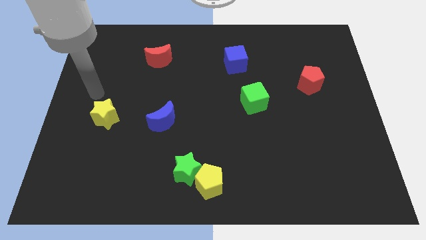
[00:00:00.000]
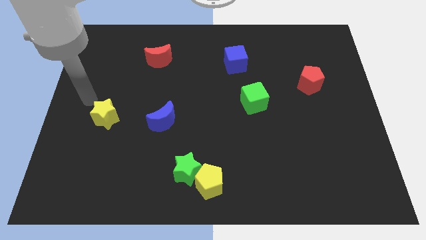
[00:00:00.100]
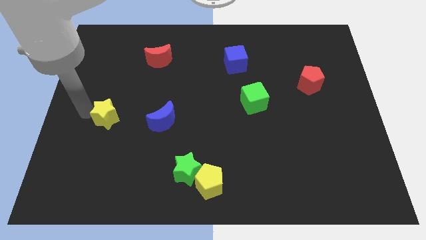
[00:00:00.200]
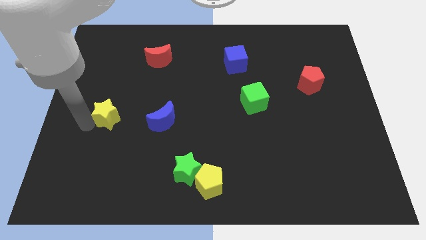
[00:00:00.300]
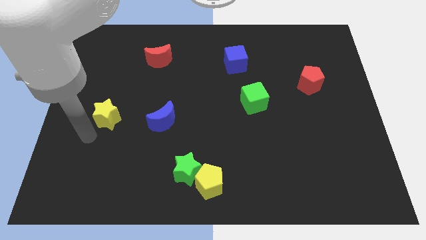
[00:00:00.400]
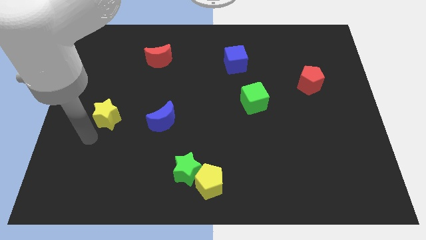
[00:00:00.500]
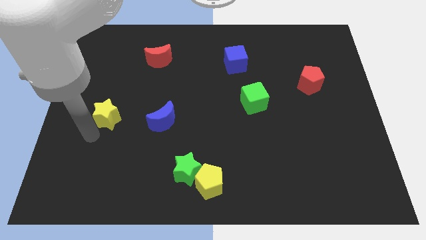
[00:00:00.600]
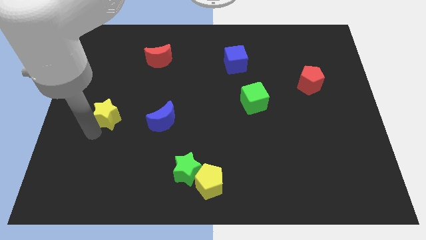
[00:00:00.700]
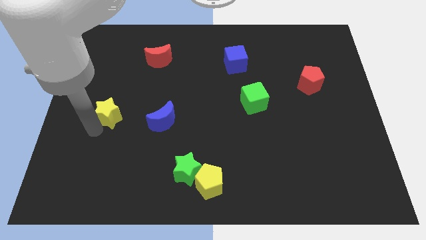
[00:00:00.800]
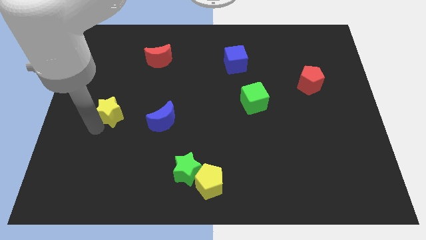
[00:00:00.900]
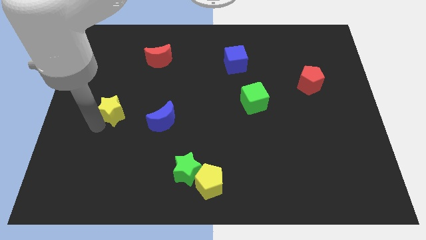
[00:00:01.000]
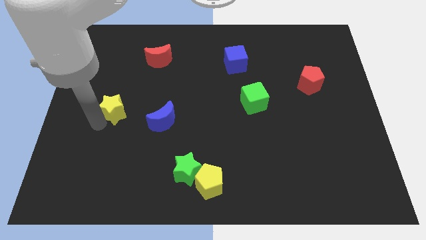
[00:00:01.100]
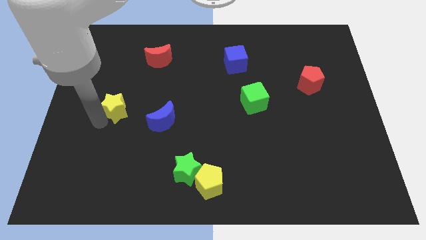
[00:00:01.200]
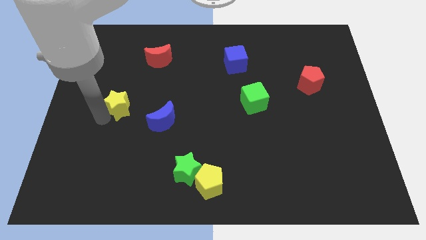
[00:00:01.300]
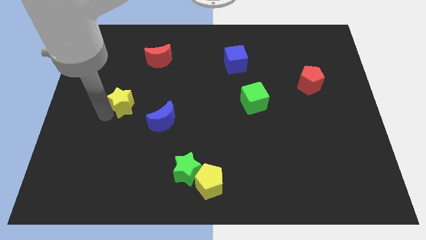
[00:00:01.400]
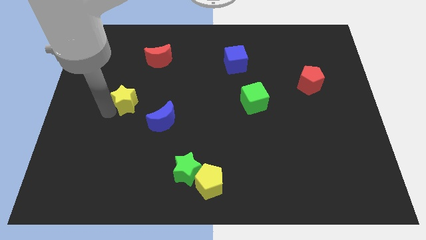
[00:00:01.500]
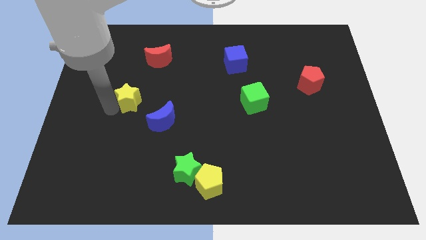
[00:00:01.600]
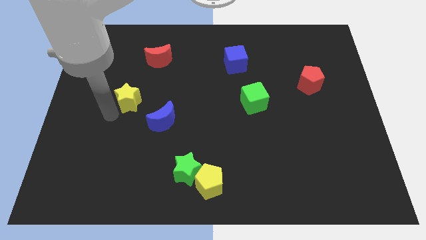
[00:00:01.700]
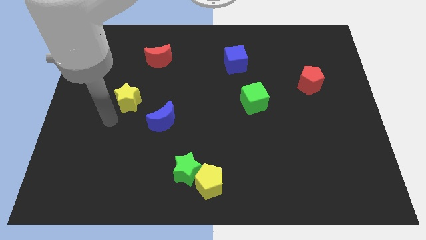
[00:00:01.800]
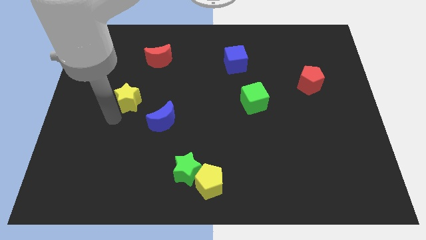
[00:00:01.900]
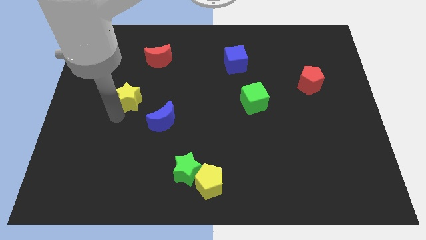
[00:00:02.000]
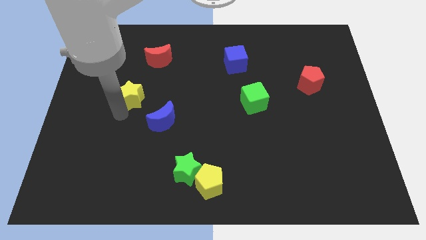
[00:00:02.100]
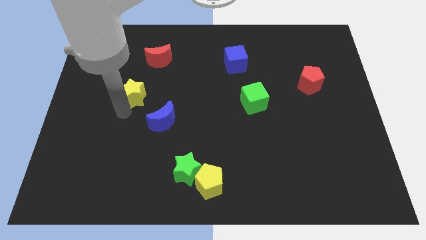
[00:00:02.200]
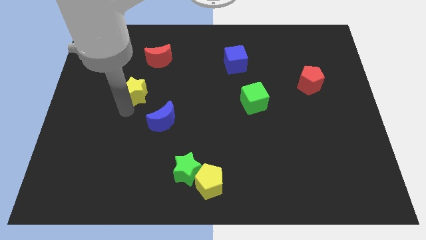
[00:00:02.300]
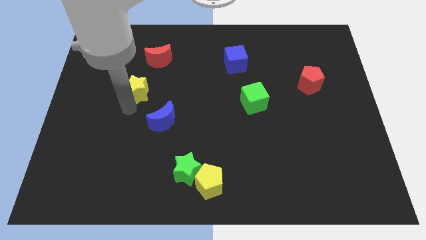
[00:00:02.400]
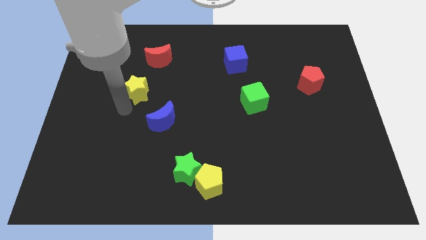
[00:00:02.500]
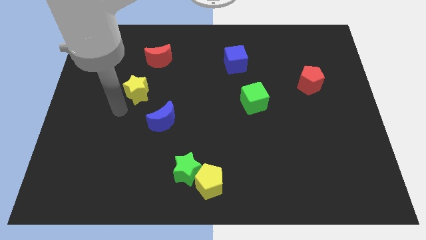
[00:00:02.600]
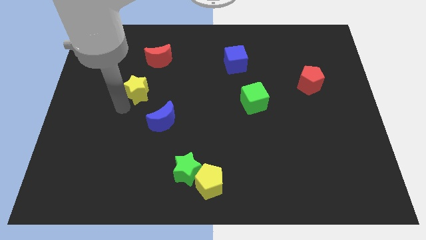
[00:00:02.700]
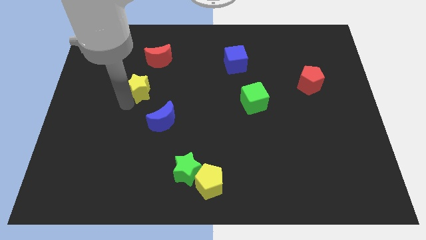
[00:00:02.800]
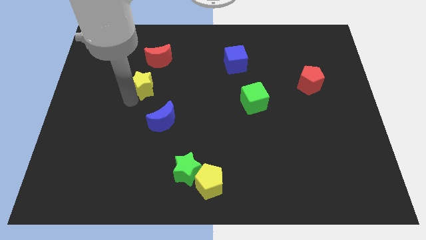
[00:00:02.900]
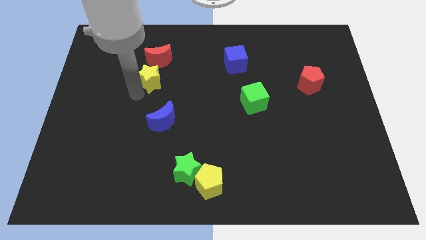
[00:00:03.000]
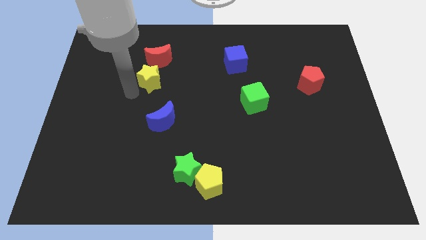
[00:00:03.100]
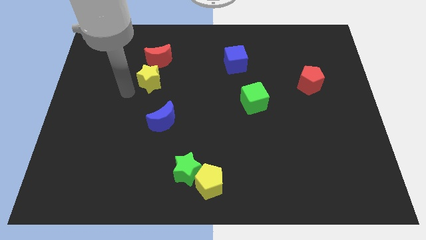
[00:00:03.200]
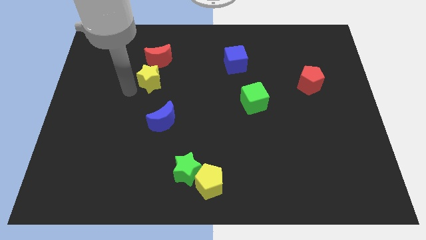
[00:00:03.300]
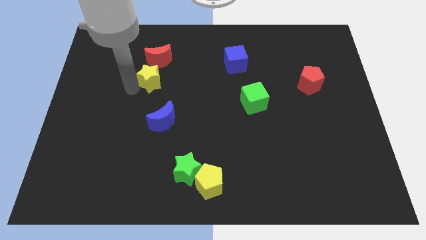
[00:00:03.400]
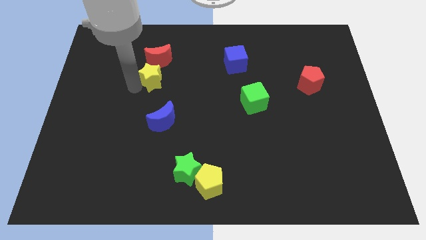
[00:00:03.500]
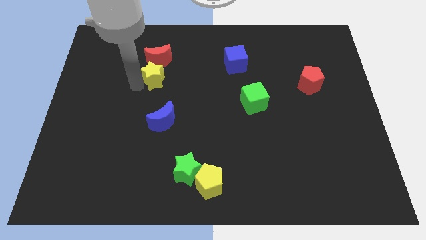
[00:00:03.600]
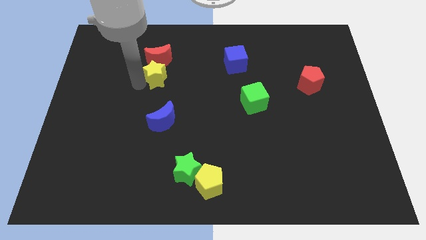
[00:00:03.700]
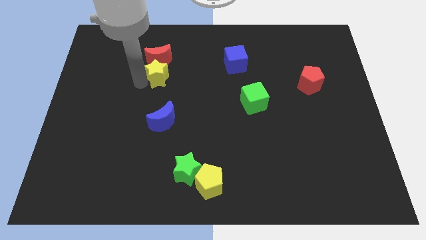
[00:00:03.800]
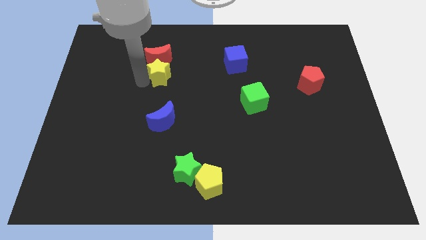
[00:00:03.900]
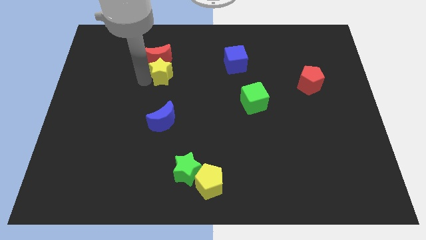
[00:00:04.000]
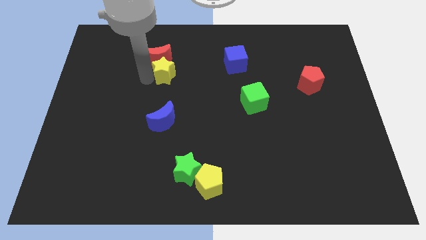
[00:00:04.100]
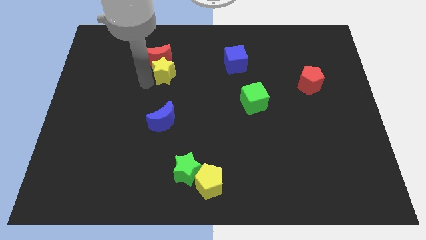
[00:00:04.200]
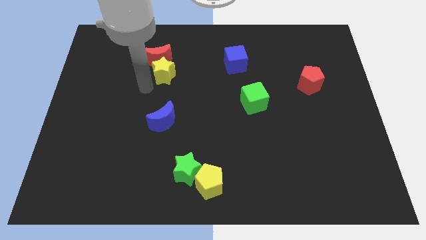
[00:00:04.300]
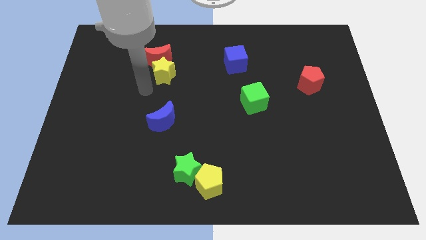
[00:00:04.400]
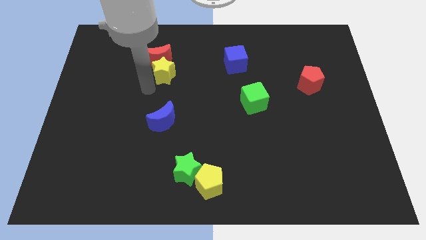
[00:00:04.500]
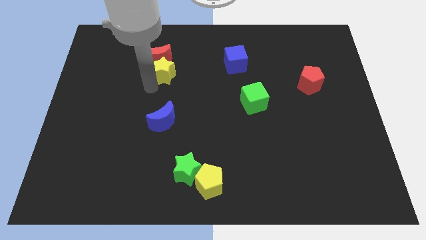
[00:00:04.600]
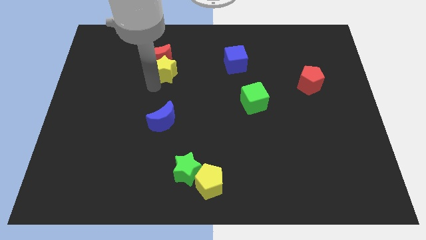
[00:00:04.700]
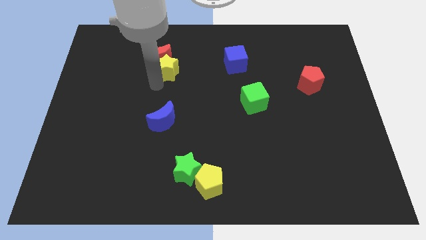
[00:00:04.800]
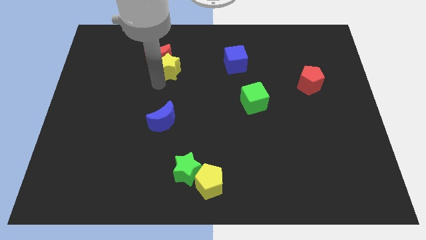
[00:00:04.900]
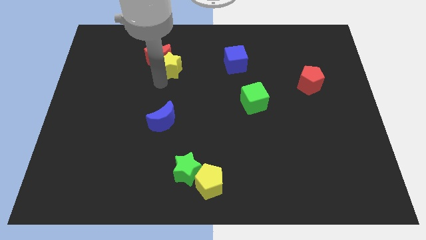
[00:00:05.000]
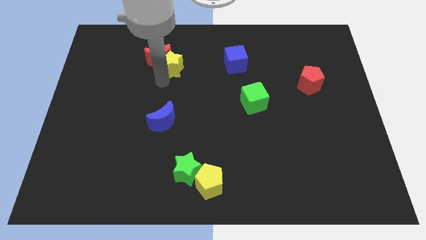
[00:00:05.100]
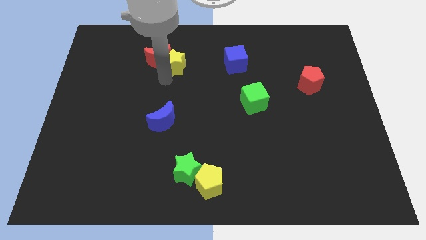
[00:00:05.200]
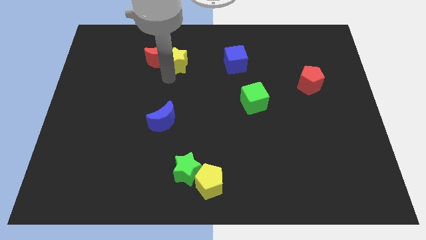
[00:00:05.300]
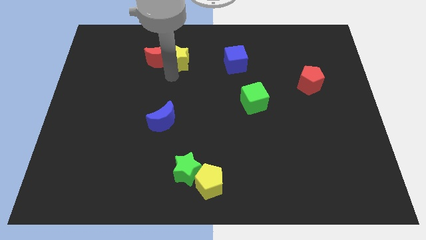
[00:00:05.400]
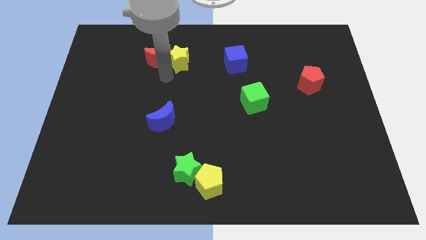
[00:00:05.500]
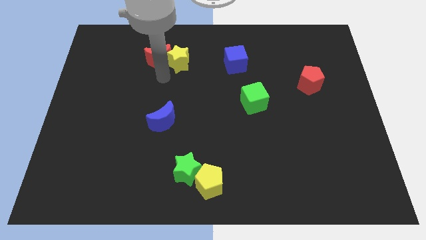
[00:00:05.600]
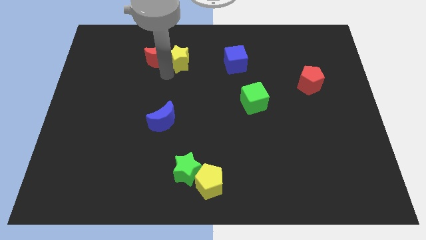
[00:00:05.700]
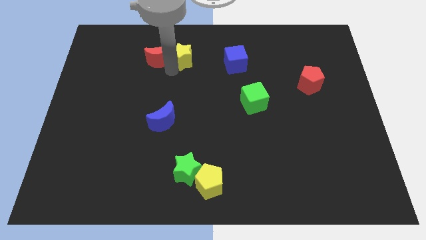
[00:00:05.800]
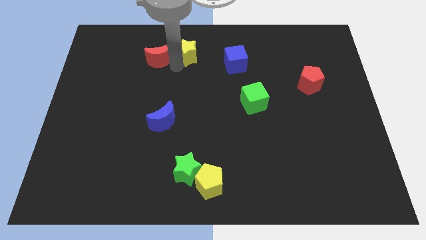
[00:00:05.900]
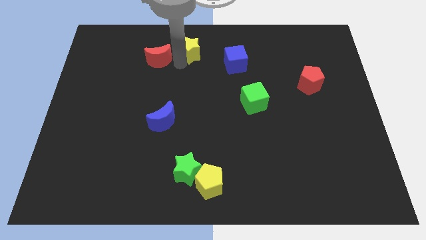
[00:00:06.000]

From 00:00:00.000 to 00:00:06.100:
put the yellow star to the top side
